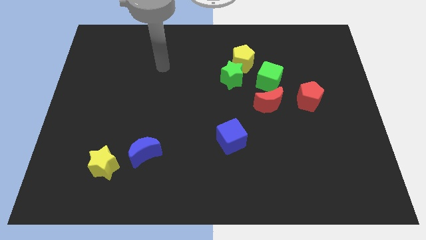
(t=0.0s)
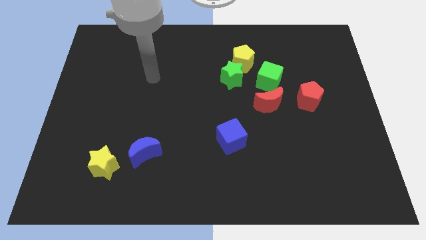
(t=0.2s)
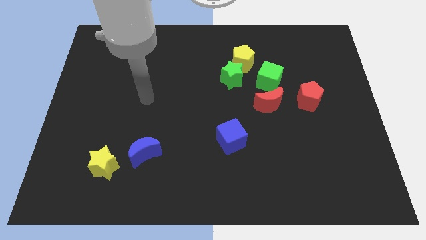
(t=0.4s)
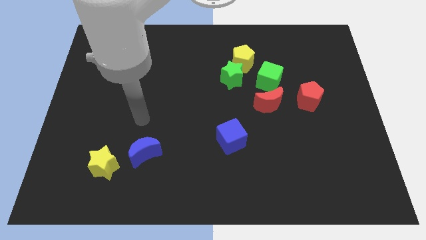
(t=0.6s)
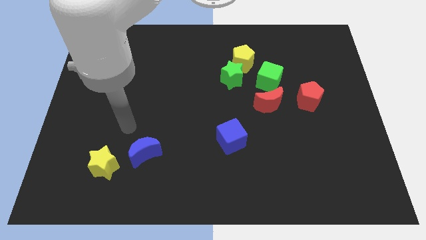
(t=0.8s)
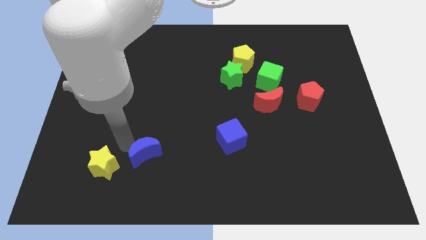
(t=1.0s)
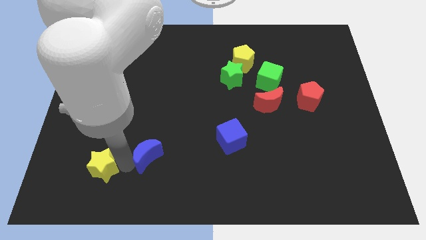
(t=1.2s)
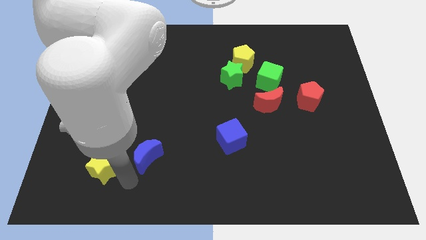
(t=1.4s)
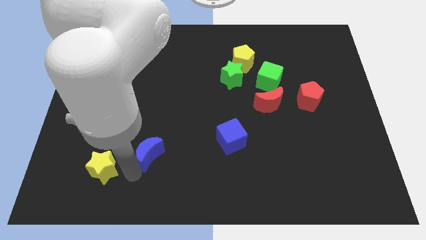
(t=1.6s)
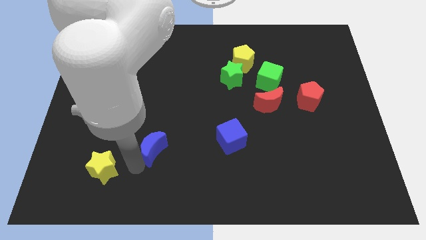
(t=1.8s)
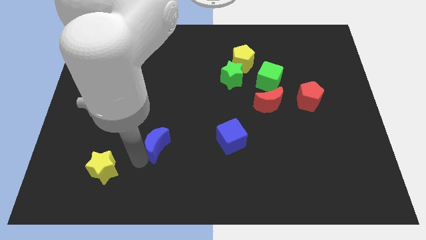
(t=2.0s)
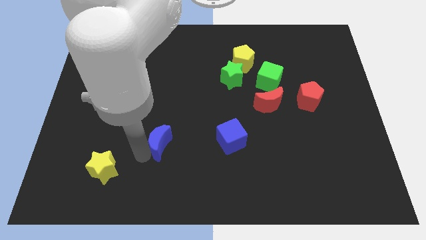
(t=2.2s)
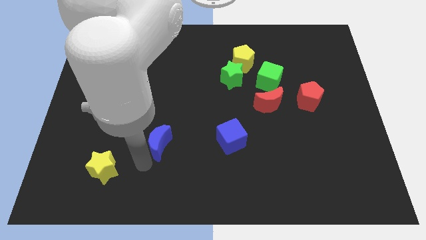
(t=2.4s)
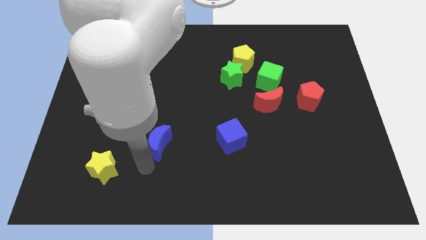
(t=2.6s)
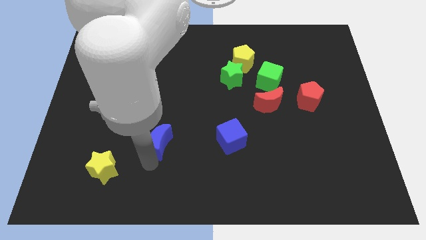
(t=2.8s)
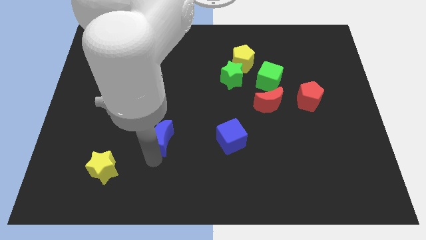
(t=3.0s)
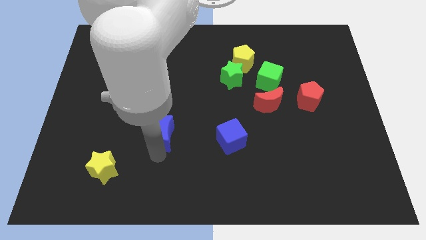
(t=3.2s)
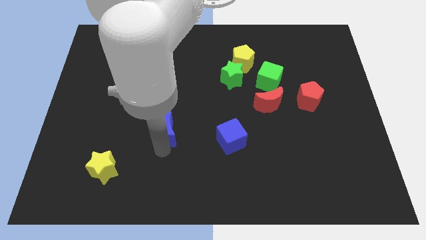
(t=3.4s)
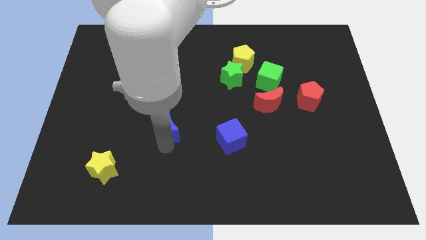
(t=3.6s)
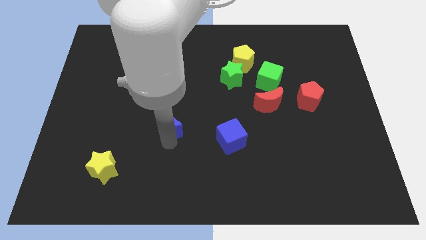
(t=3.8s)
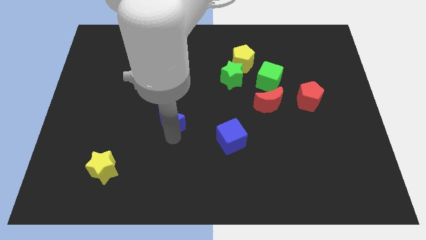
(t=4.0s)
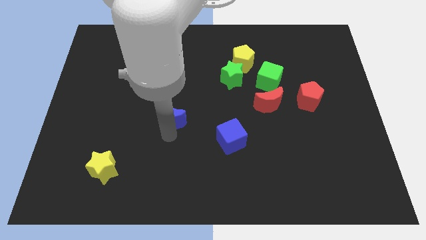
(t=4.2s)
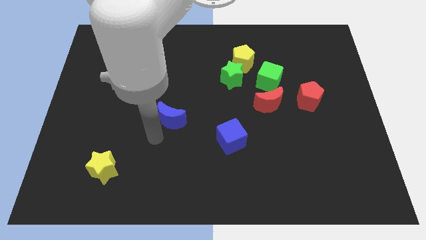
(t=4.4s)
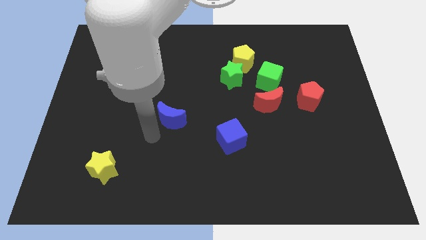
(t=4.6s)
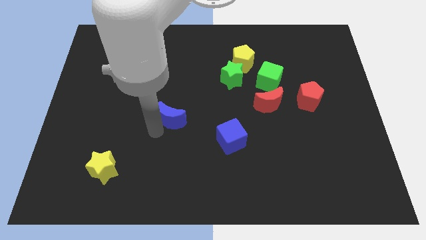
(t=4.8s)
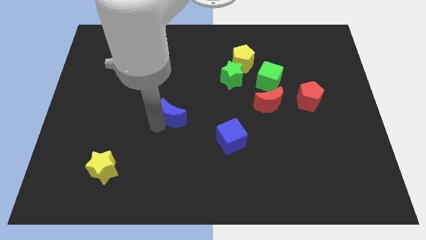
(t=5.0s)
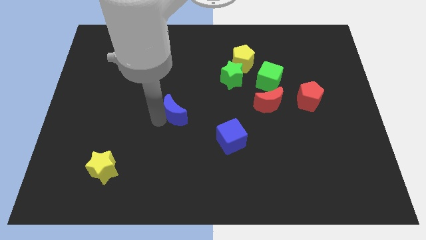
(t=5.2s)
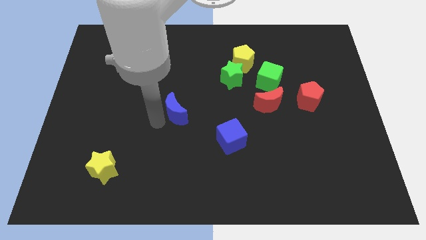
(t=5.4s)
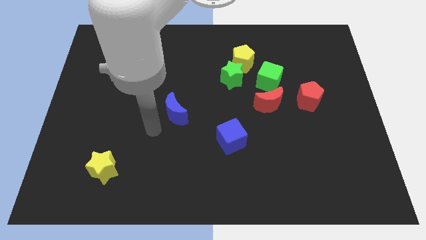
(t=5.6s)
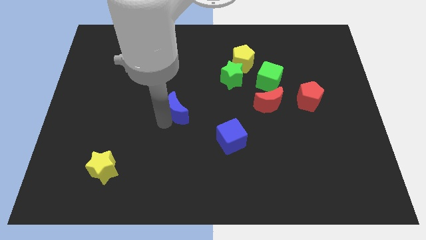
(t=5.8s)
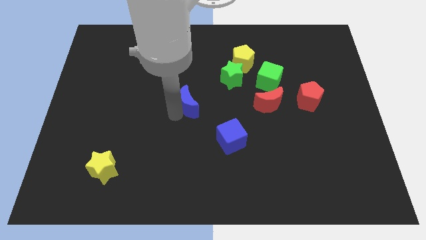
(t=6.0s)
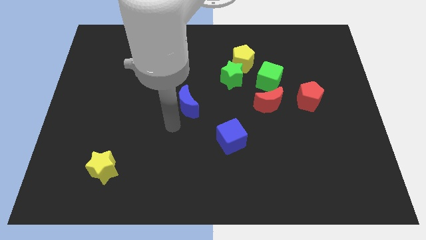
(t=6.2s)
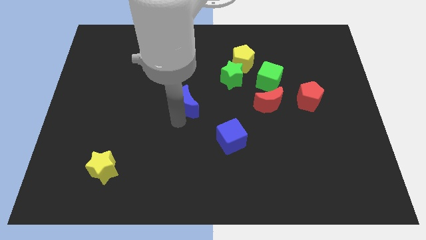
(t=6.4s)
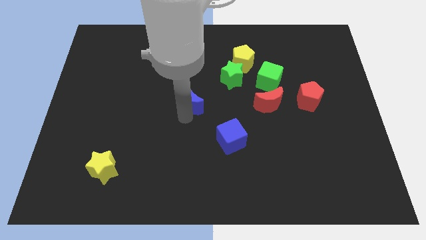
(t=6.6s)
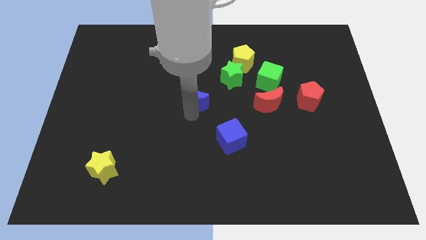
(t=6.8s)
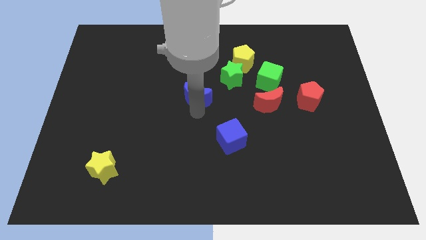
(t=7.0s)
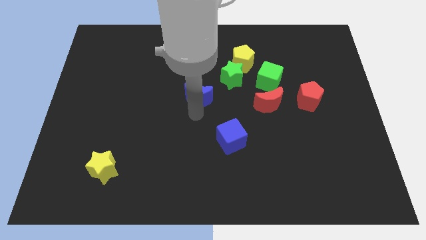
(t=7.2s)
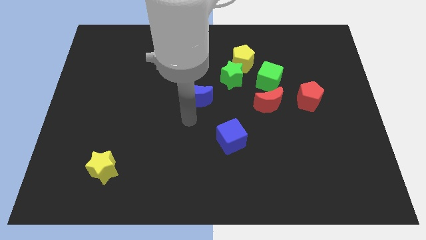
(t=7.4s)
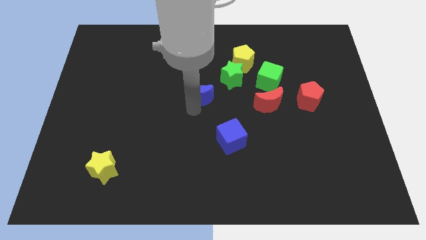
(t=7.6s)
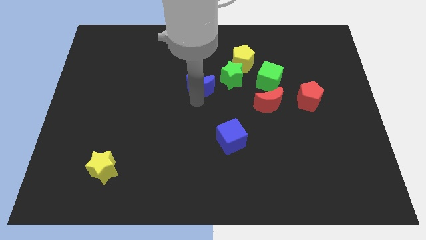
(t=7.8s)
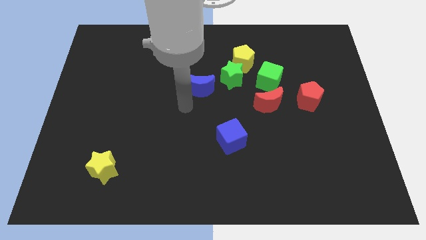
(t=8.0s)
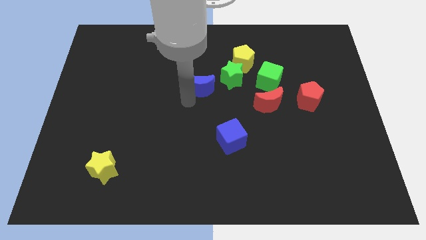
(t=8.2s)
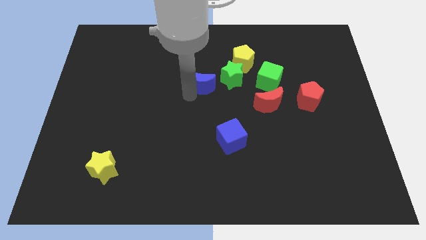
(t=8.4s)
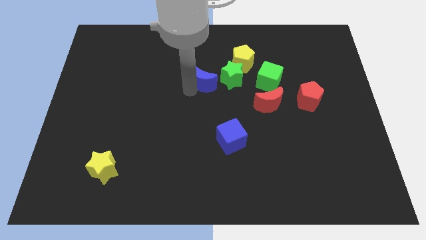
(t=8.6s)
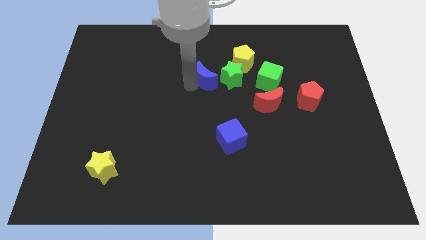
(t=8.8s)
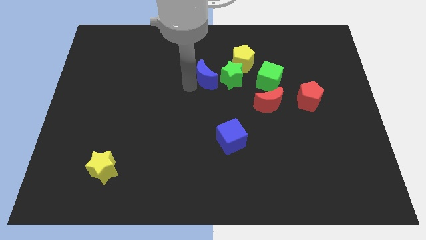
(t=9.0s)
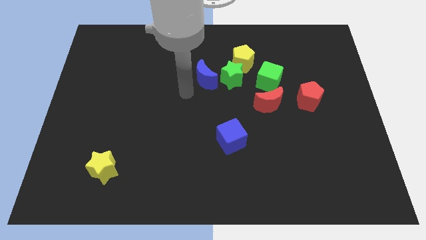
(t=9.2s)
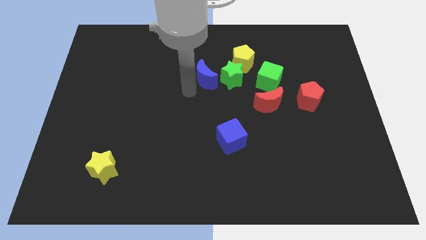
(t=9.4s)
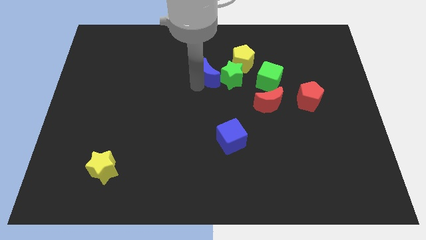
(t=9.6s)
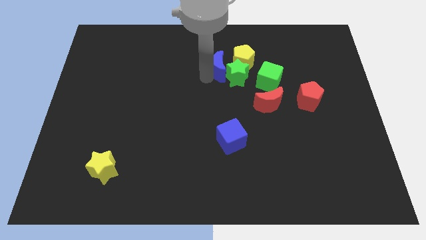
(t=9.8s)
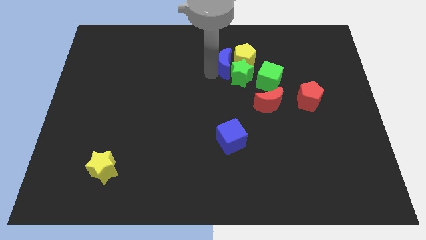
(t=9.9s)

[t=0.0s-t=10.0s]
move the blue moon to the yellow pentagon

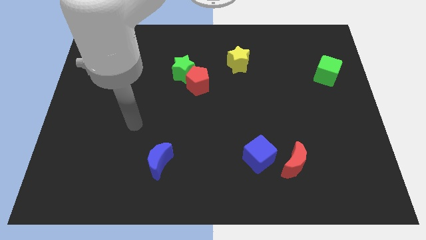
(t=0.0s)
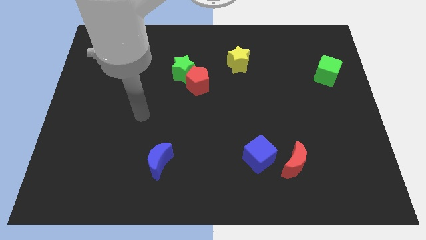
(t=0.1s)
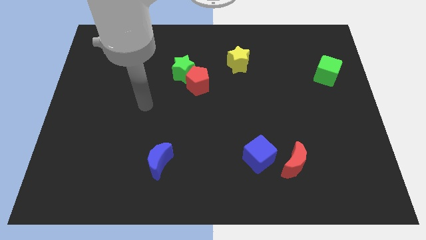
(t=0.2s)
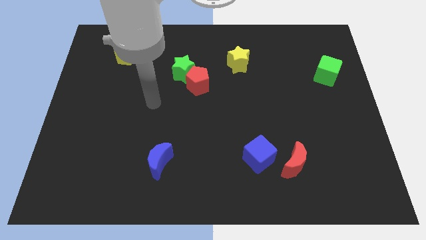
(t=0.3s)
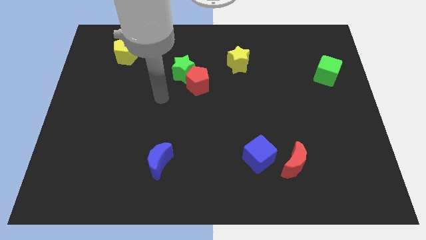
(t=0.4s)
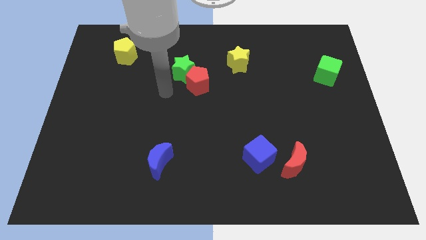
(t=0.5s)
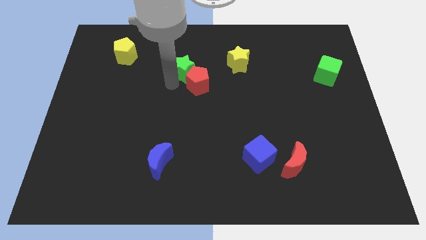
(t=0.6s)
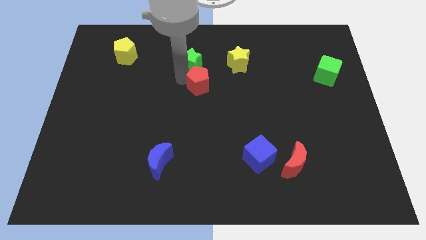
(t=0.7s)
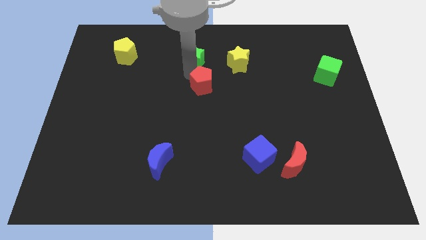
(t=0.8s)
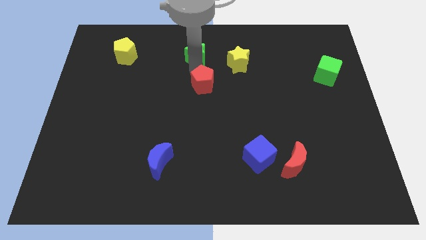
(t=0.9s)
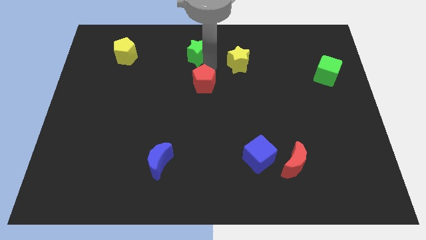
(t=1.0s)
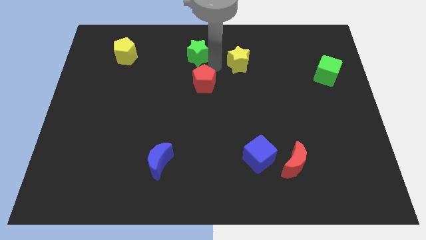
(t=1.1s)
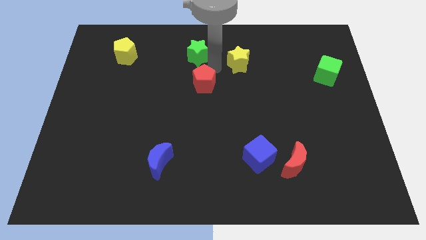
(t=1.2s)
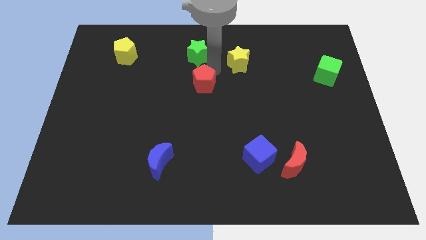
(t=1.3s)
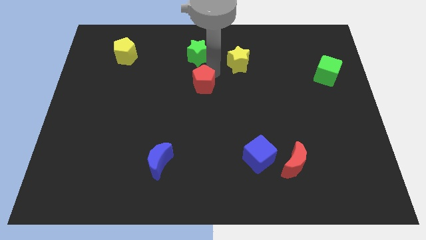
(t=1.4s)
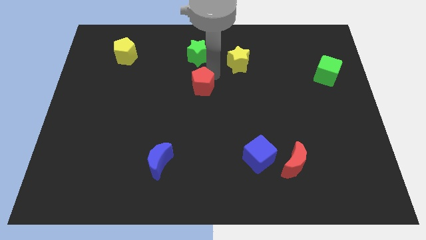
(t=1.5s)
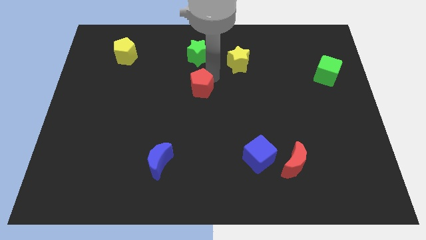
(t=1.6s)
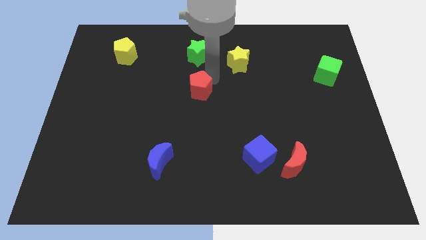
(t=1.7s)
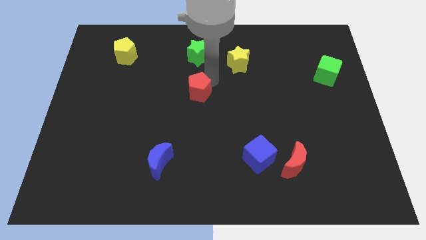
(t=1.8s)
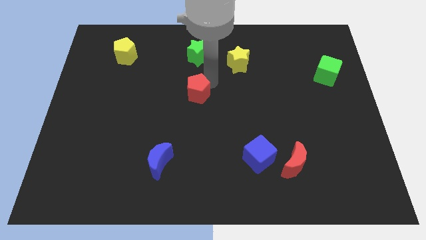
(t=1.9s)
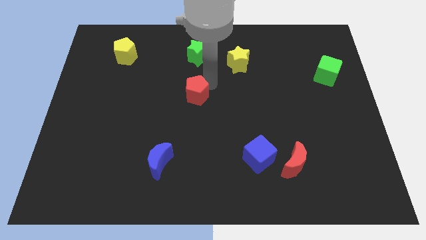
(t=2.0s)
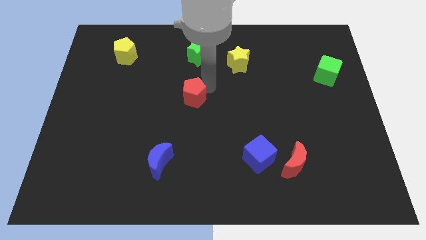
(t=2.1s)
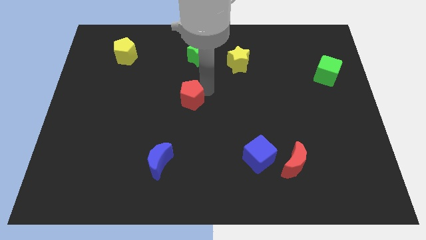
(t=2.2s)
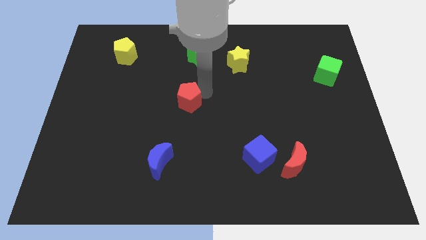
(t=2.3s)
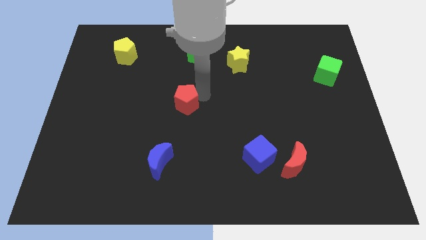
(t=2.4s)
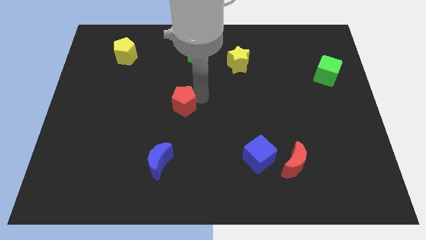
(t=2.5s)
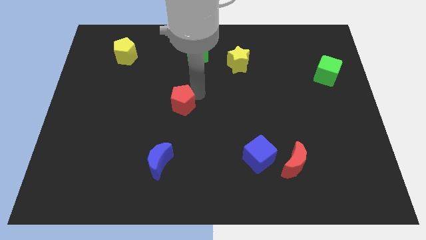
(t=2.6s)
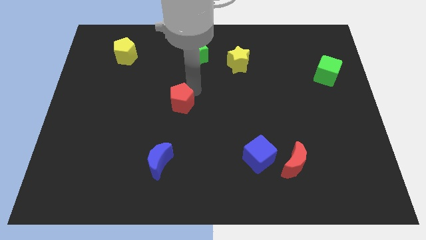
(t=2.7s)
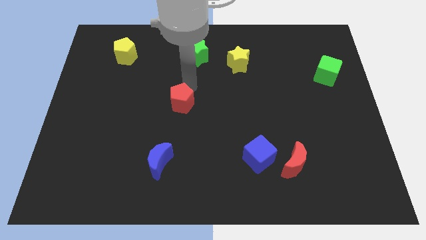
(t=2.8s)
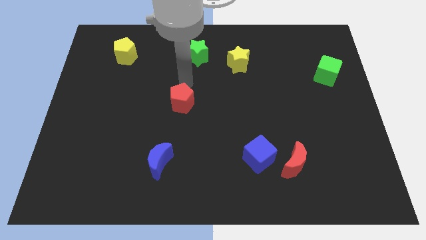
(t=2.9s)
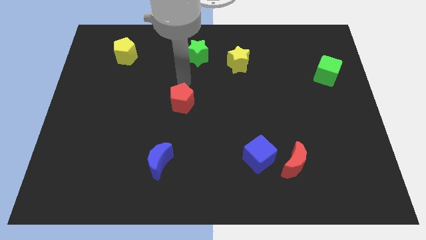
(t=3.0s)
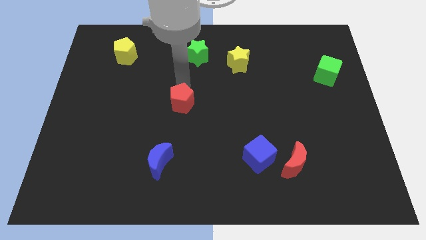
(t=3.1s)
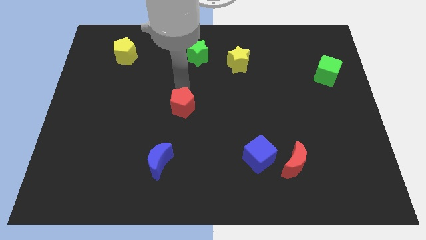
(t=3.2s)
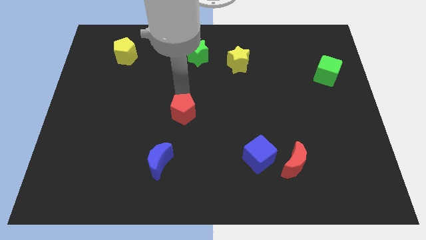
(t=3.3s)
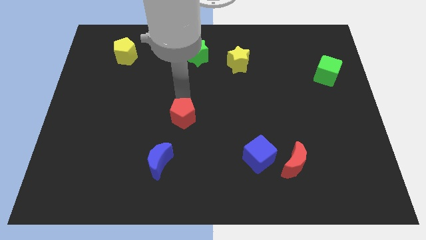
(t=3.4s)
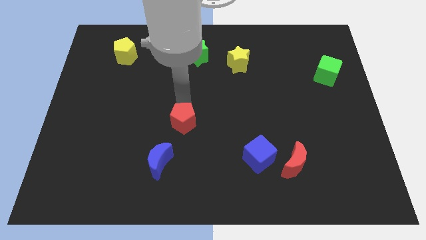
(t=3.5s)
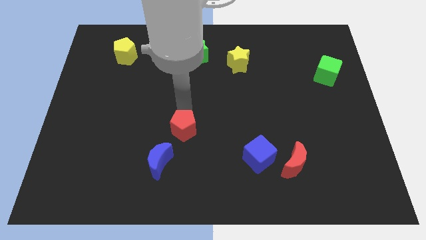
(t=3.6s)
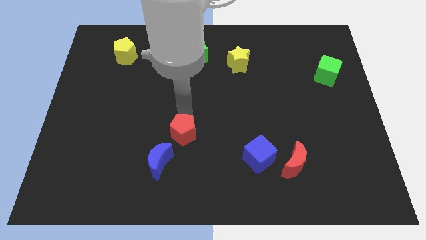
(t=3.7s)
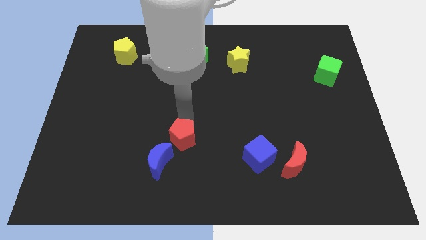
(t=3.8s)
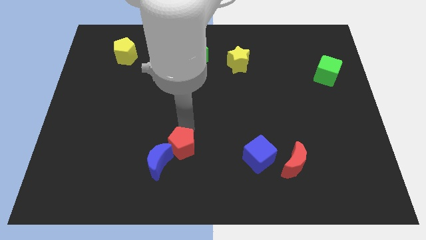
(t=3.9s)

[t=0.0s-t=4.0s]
put the red pentagon towards the blue moon
